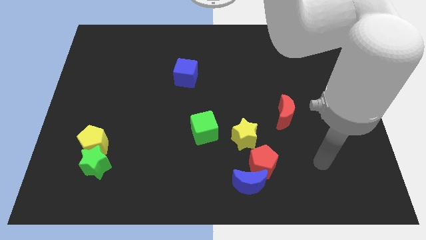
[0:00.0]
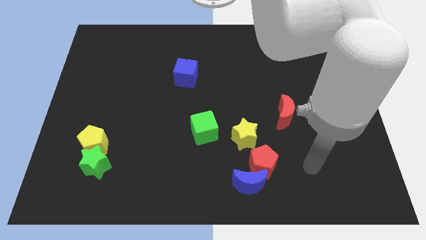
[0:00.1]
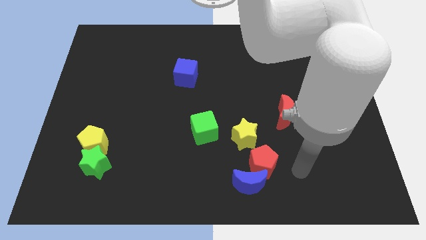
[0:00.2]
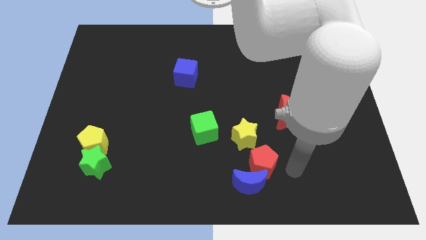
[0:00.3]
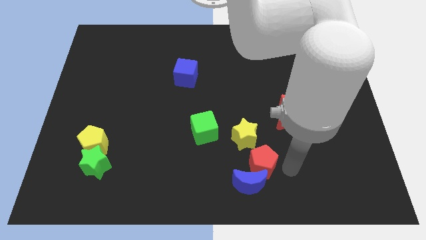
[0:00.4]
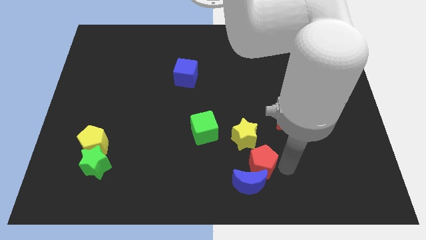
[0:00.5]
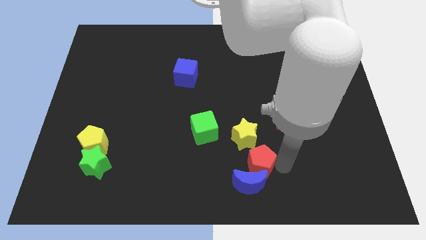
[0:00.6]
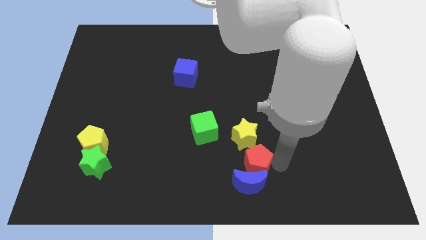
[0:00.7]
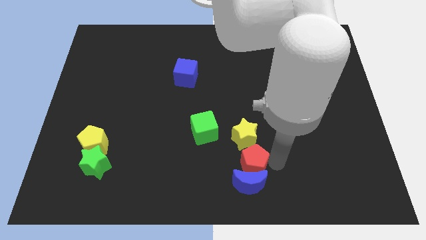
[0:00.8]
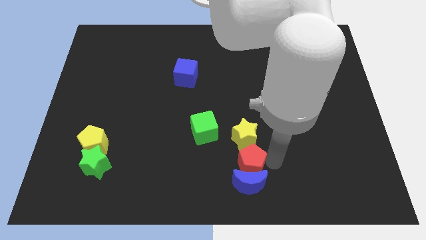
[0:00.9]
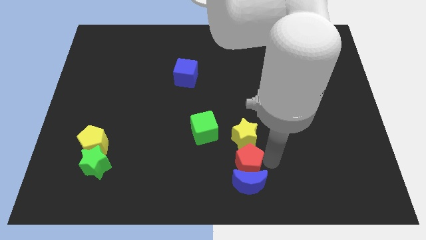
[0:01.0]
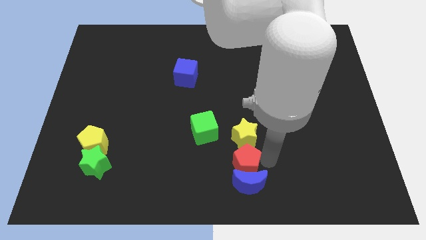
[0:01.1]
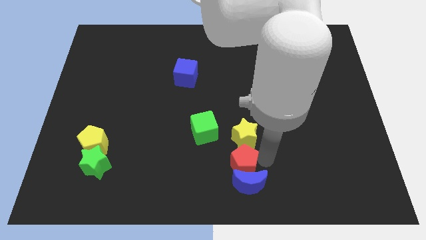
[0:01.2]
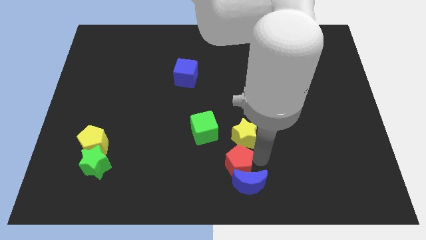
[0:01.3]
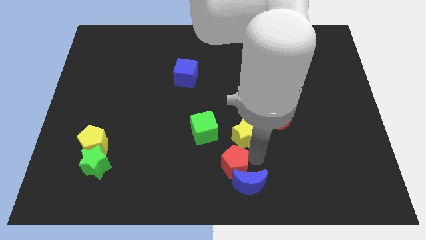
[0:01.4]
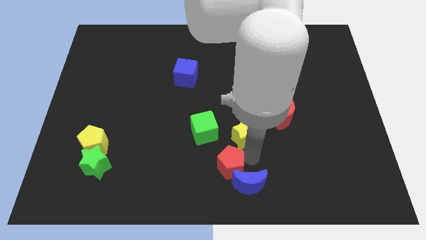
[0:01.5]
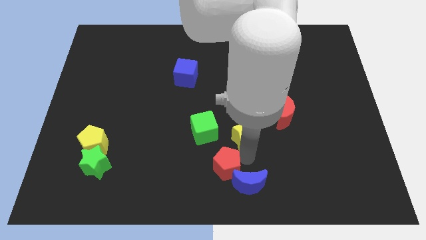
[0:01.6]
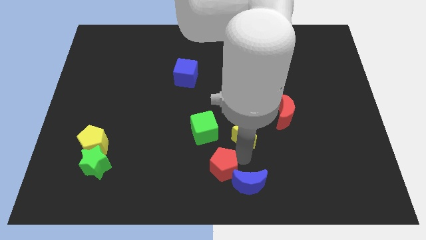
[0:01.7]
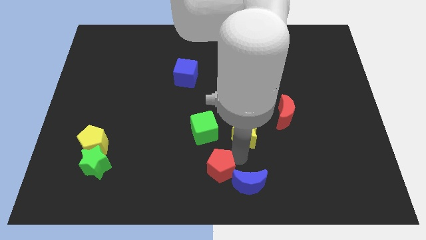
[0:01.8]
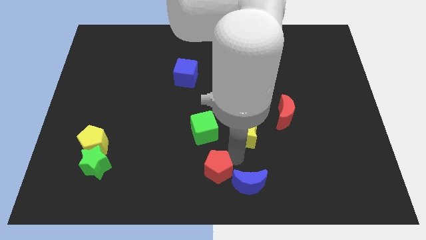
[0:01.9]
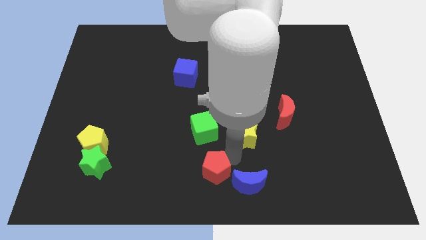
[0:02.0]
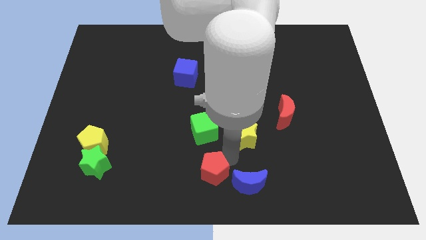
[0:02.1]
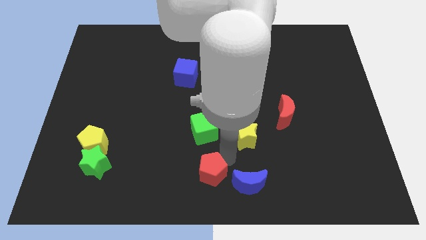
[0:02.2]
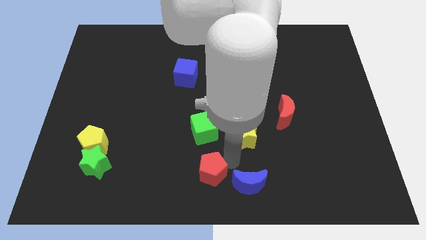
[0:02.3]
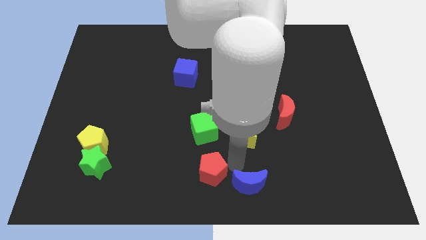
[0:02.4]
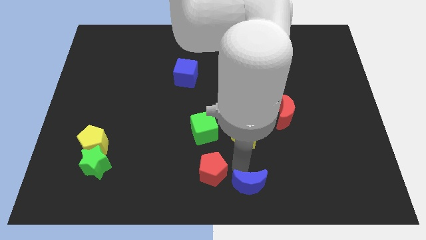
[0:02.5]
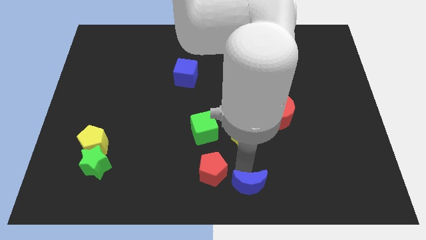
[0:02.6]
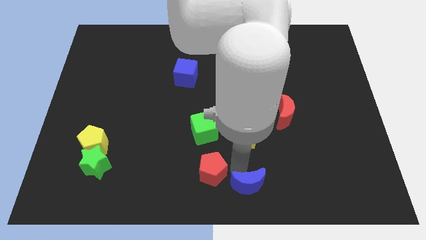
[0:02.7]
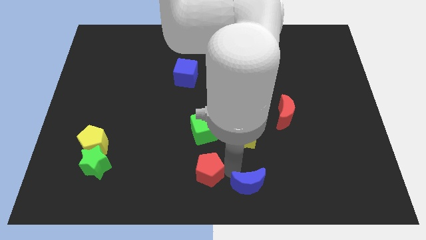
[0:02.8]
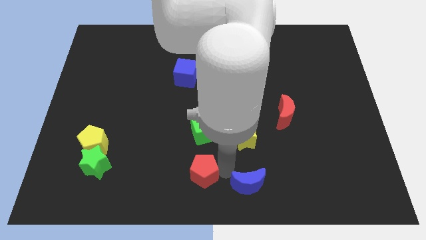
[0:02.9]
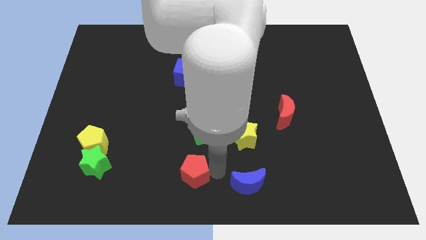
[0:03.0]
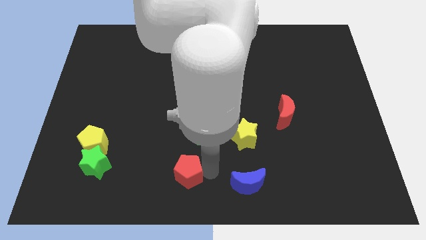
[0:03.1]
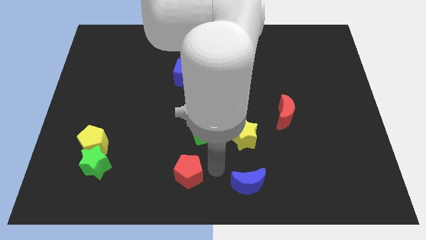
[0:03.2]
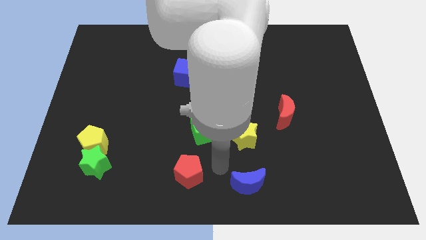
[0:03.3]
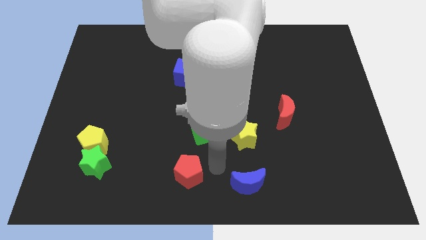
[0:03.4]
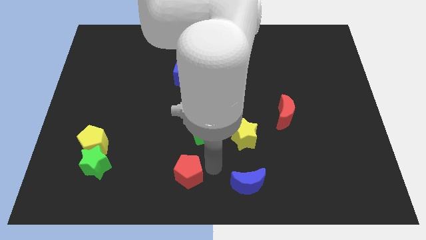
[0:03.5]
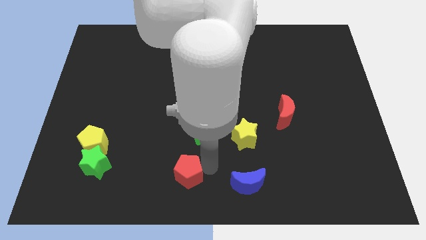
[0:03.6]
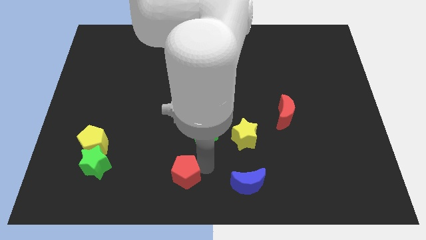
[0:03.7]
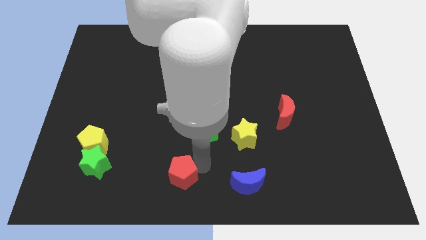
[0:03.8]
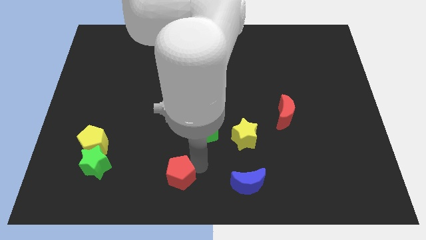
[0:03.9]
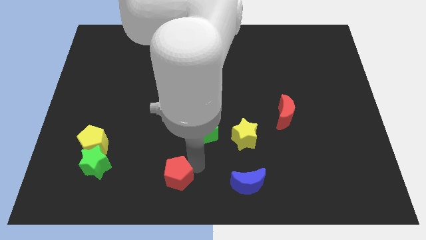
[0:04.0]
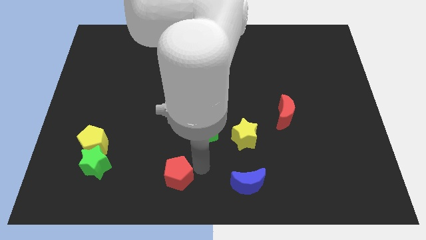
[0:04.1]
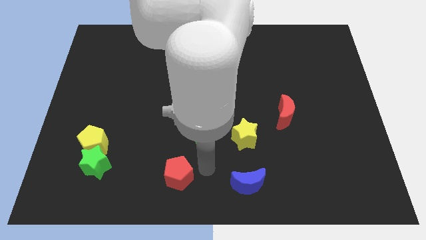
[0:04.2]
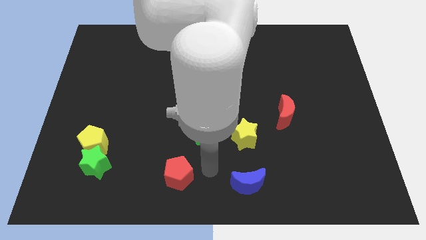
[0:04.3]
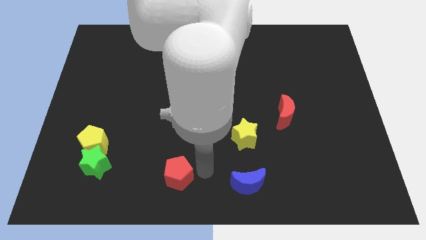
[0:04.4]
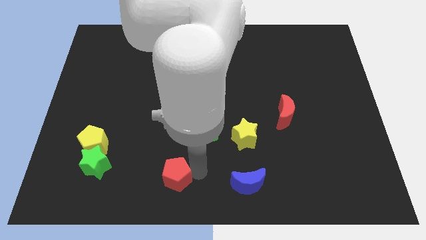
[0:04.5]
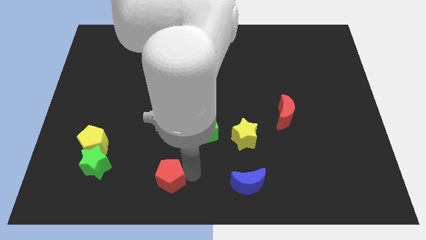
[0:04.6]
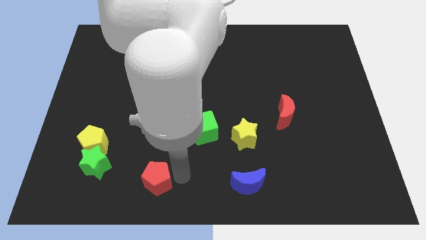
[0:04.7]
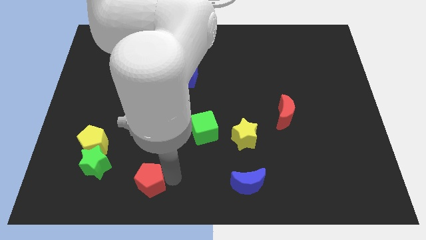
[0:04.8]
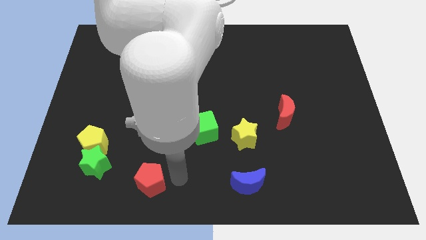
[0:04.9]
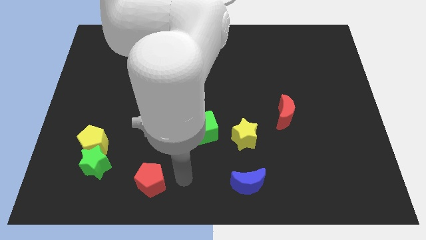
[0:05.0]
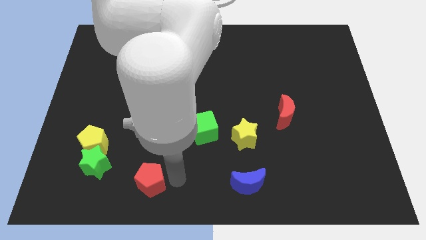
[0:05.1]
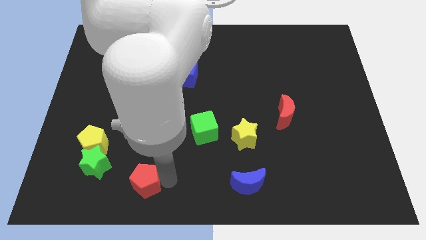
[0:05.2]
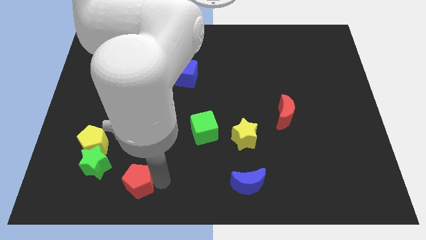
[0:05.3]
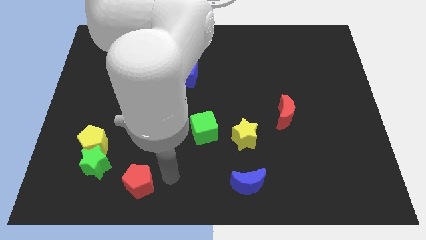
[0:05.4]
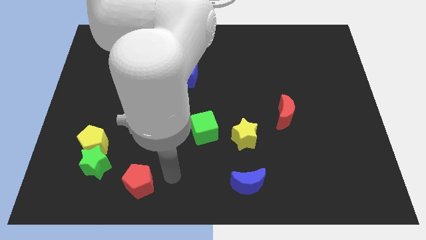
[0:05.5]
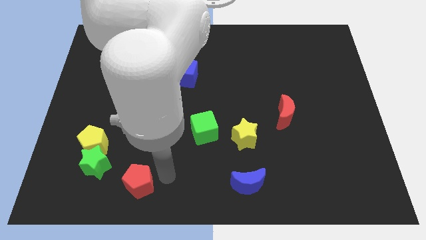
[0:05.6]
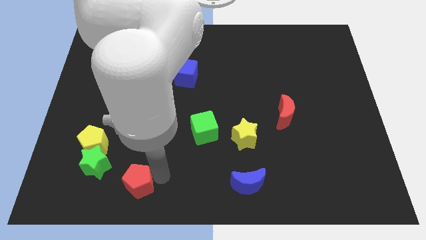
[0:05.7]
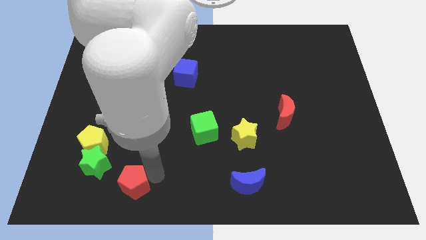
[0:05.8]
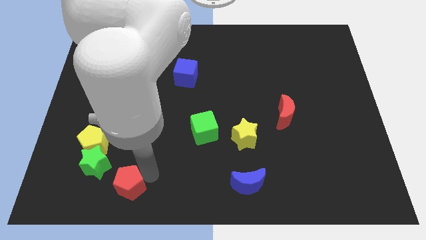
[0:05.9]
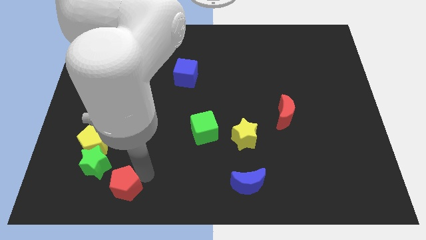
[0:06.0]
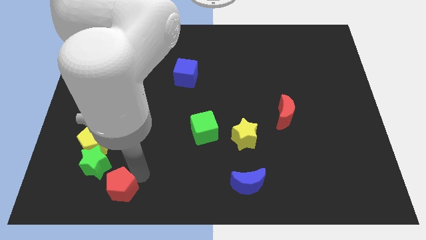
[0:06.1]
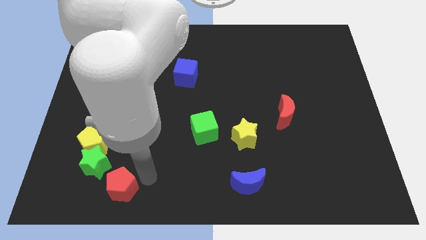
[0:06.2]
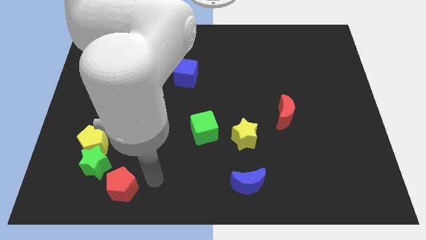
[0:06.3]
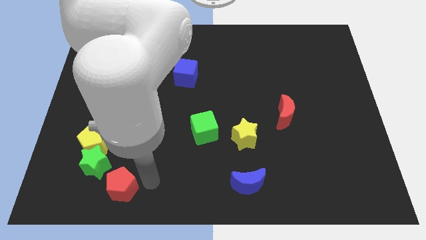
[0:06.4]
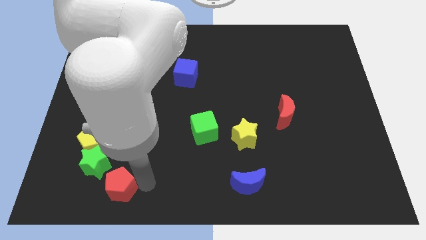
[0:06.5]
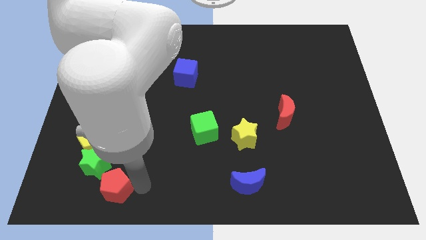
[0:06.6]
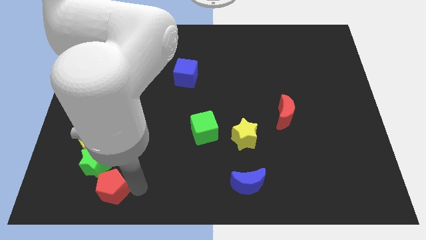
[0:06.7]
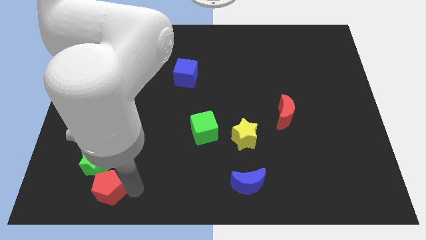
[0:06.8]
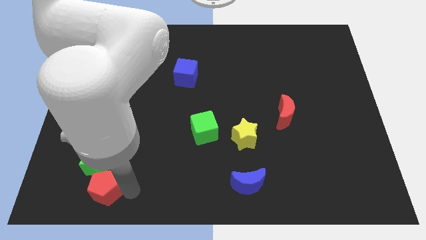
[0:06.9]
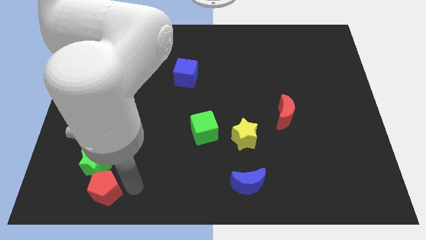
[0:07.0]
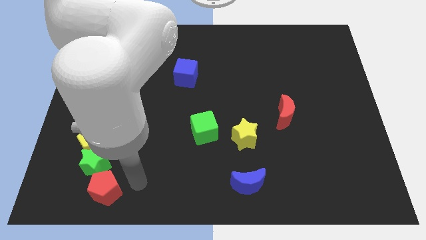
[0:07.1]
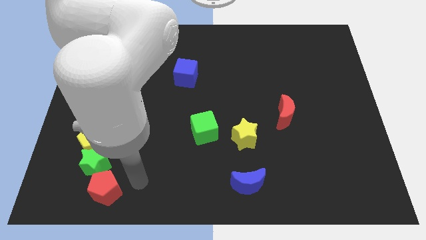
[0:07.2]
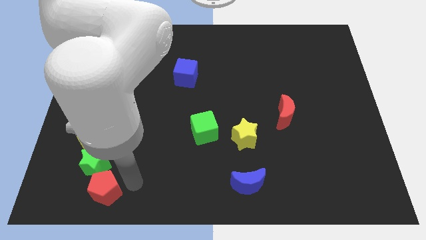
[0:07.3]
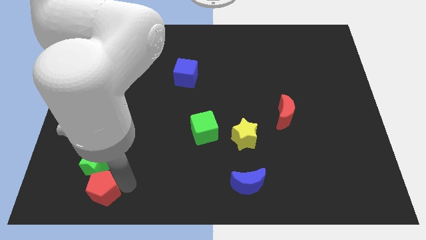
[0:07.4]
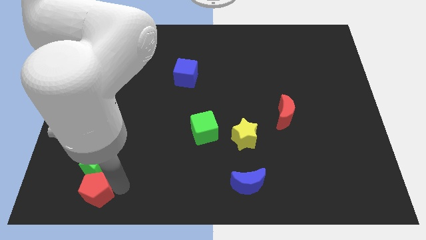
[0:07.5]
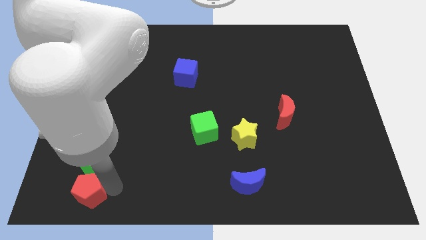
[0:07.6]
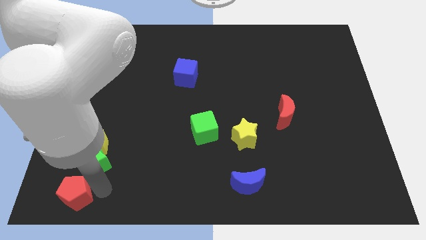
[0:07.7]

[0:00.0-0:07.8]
slide the red pentagon to the bottom left corner
